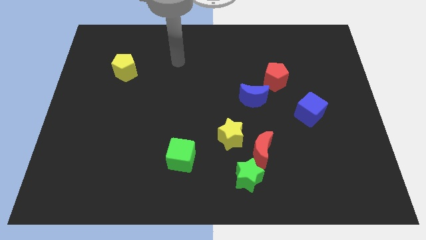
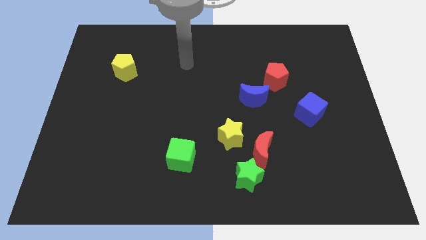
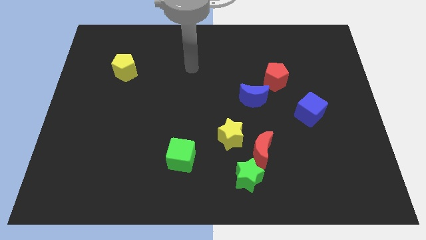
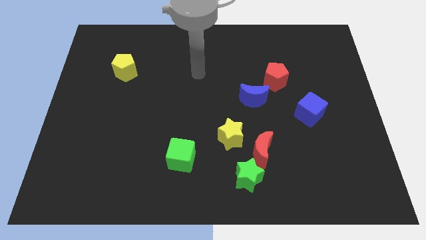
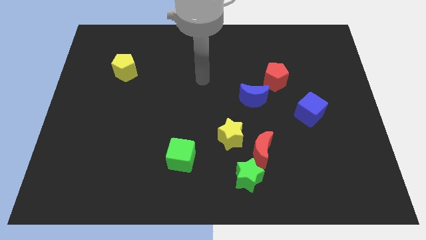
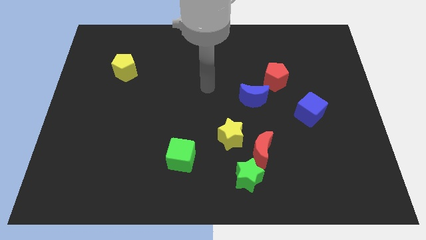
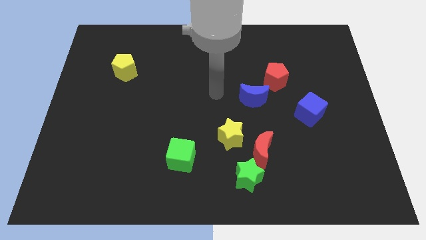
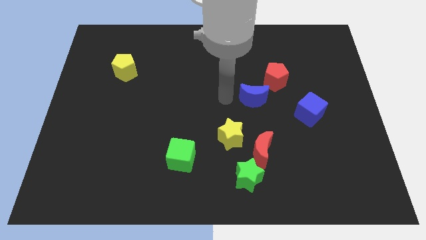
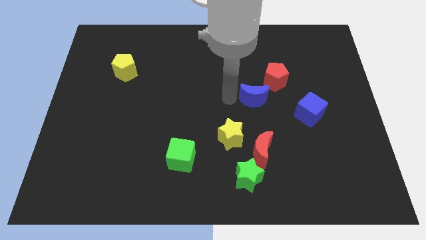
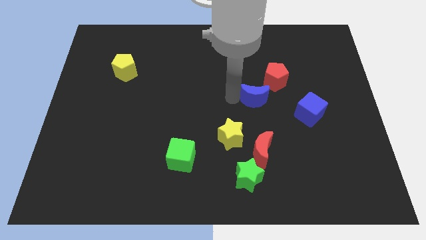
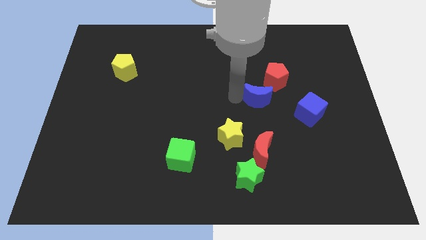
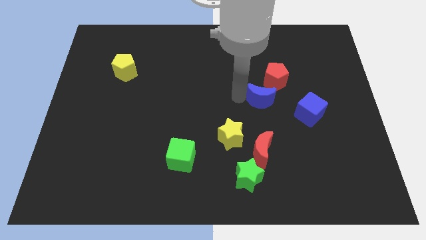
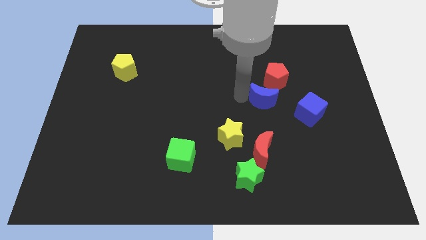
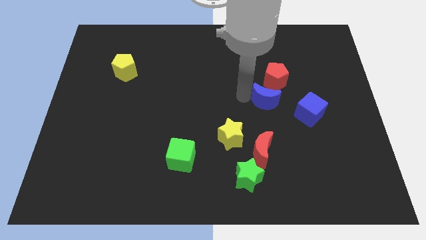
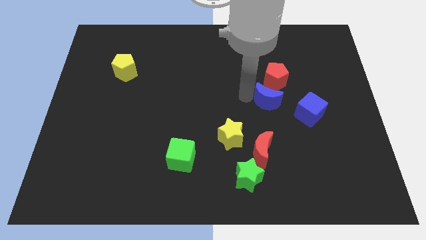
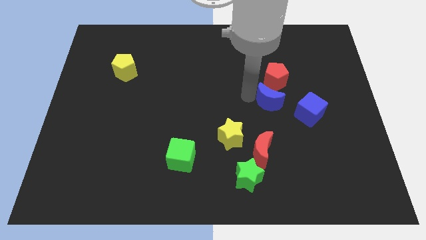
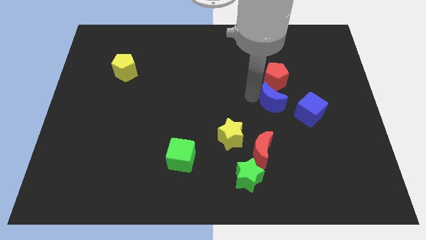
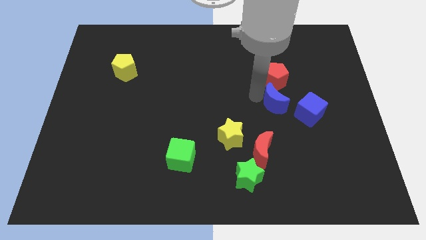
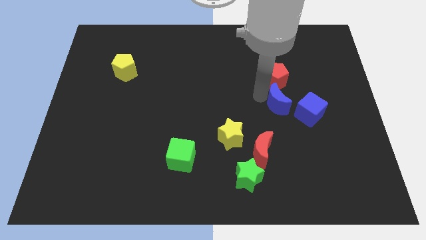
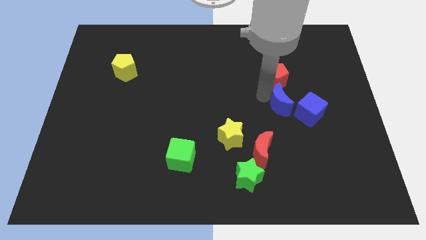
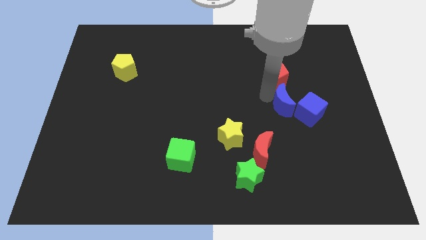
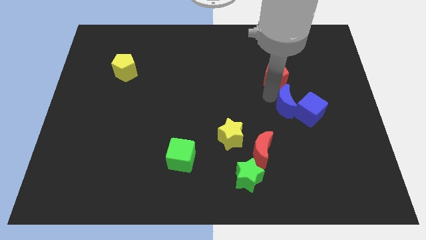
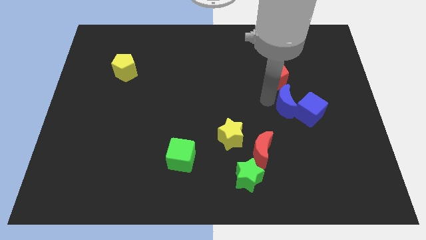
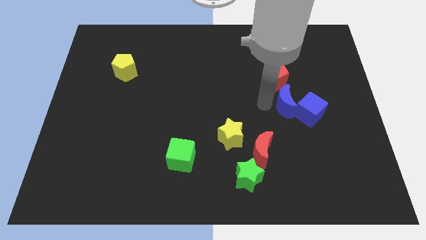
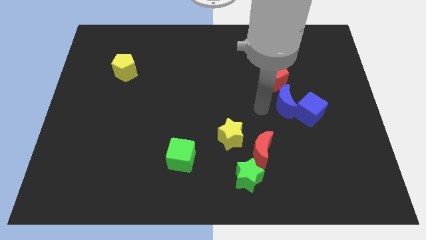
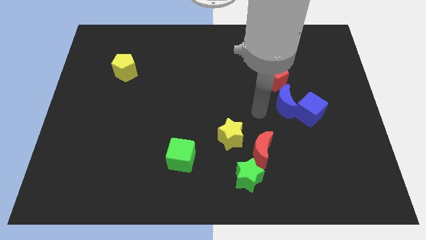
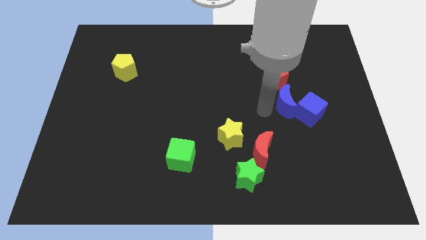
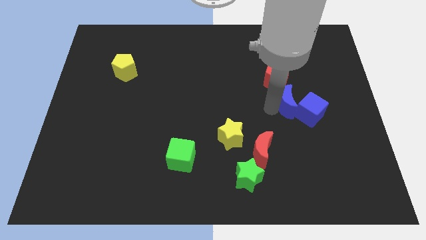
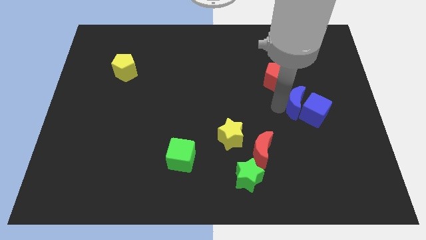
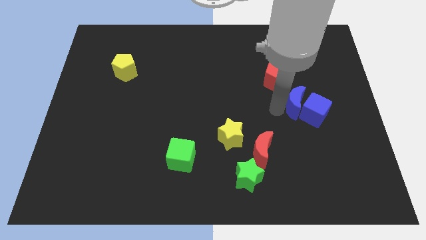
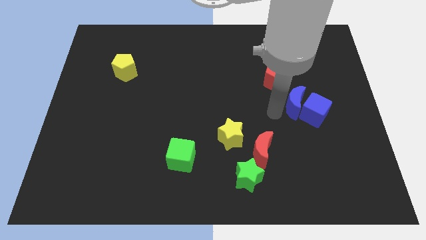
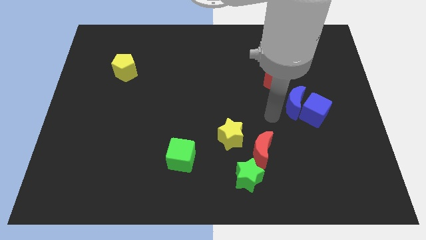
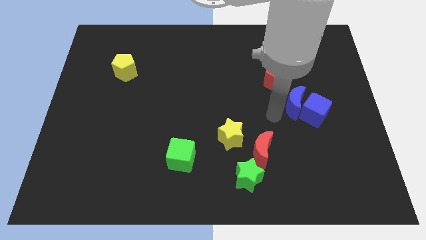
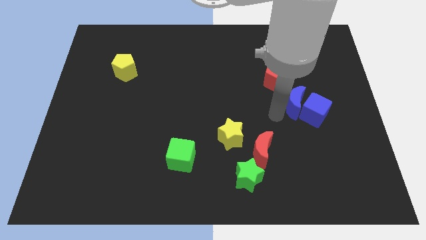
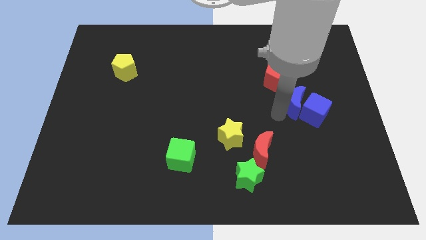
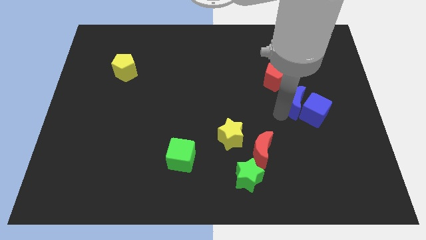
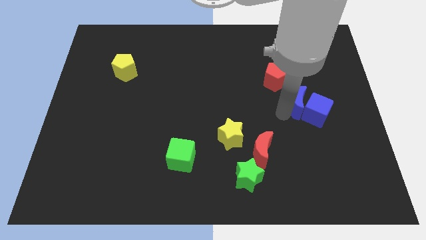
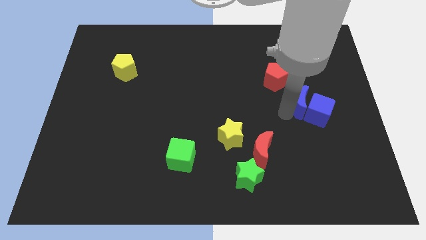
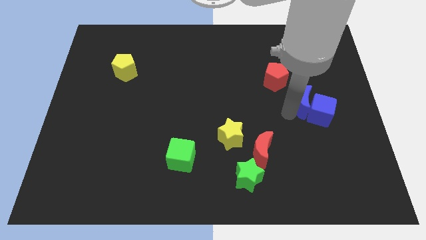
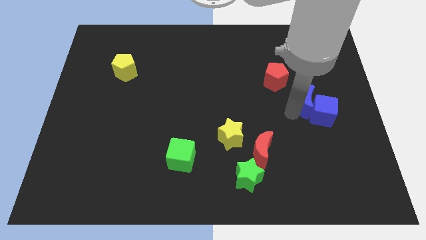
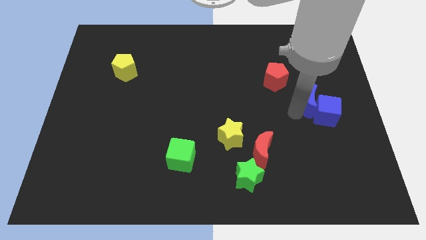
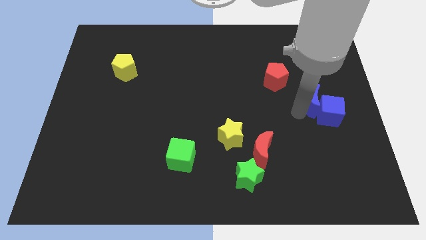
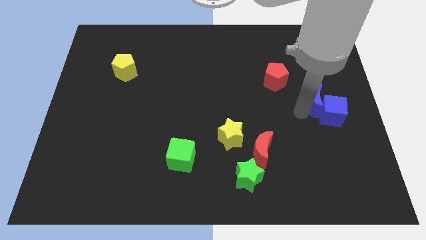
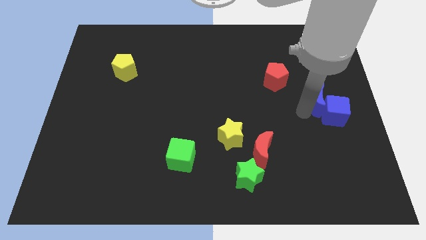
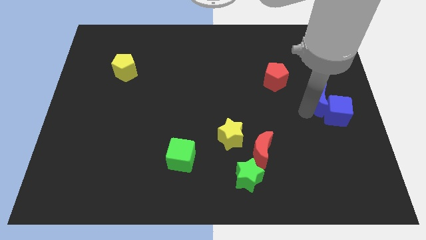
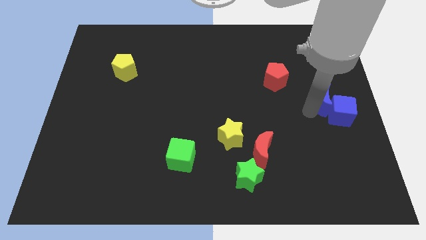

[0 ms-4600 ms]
push the blue moon to the right side

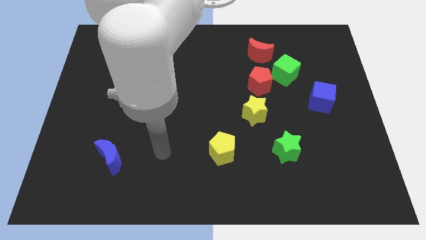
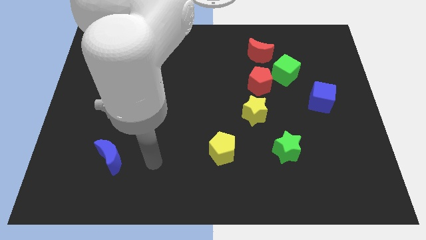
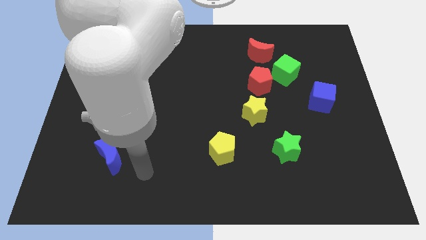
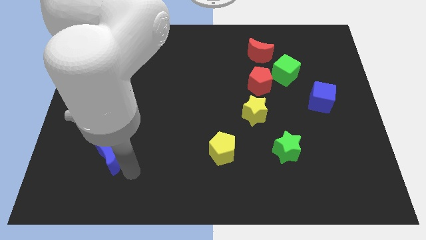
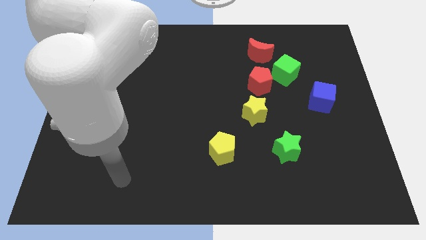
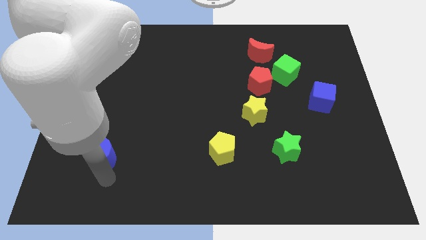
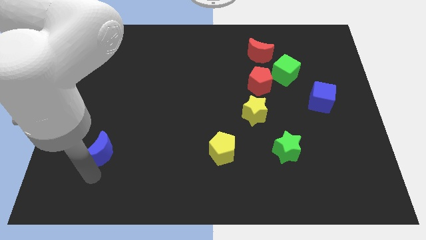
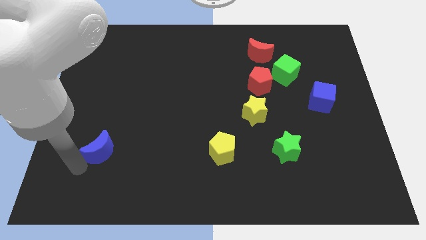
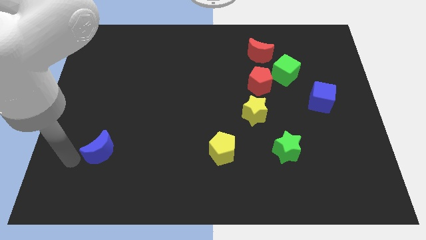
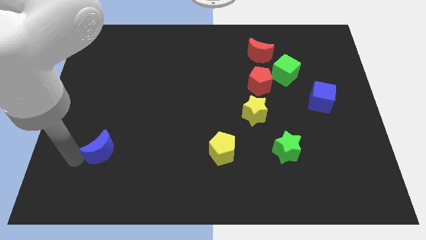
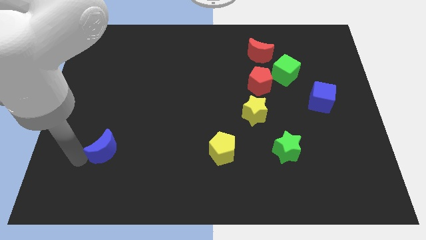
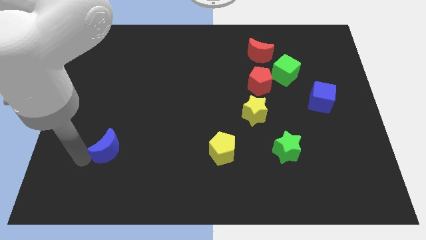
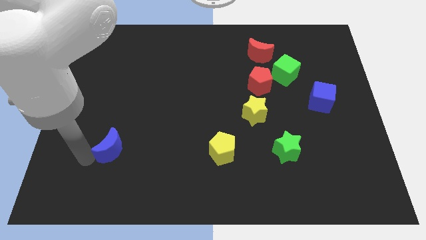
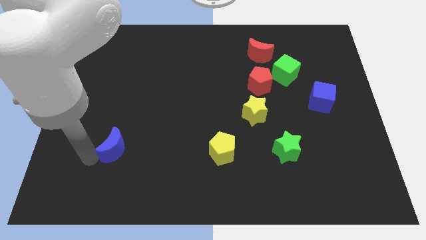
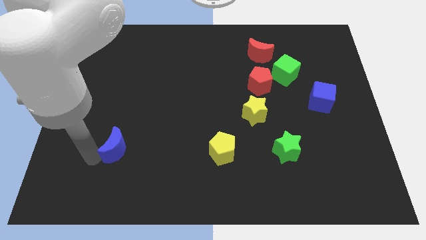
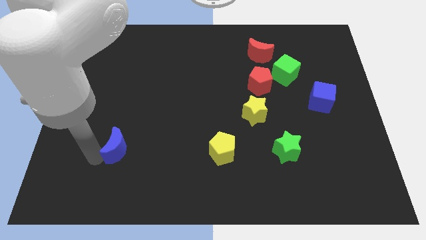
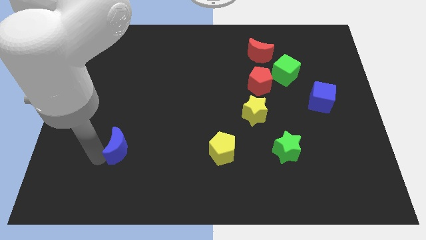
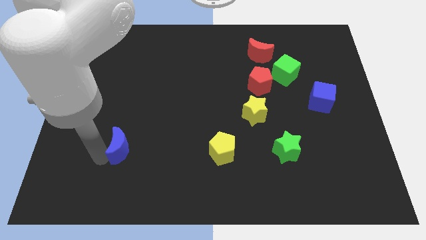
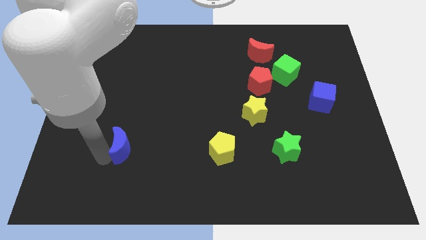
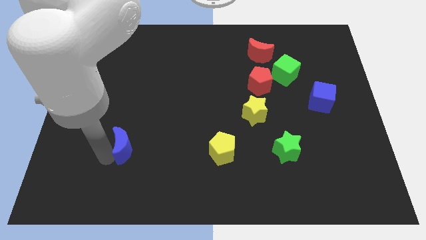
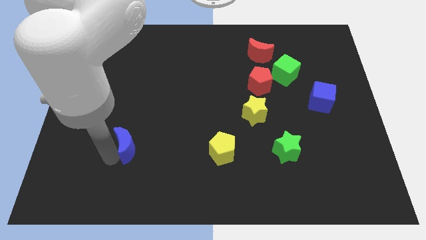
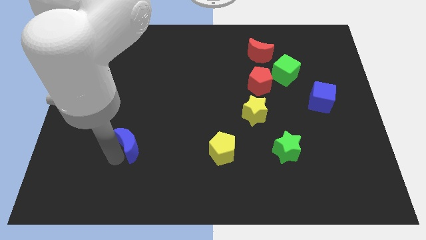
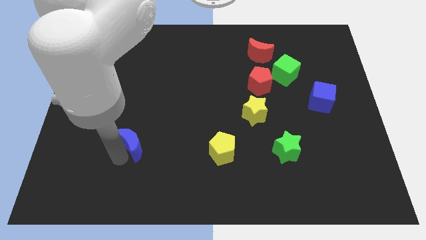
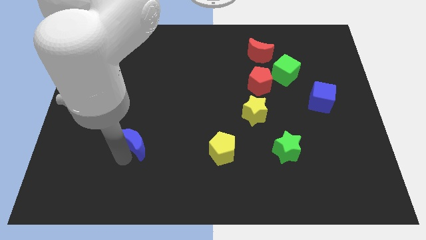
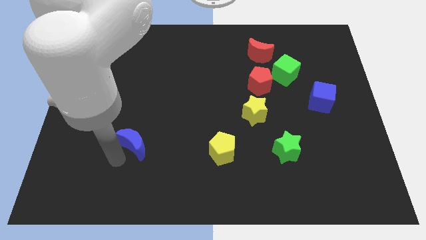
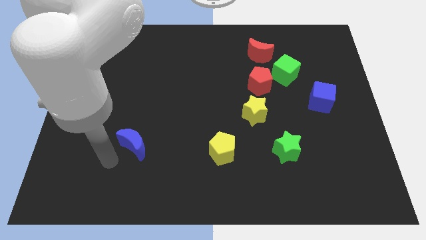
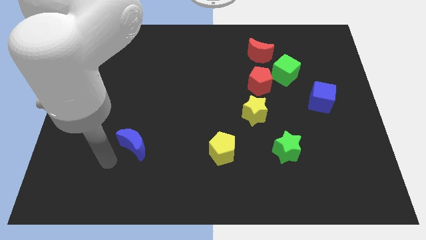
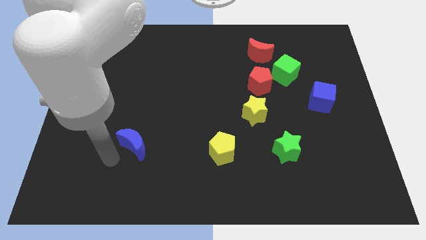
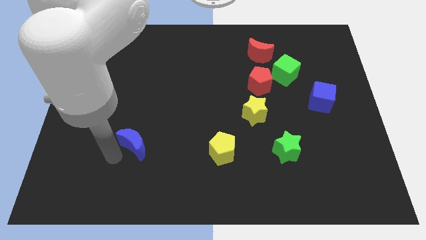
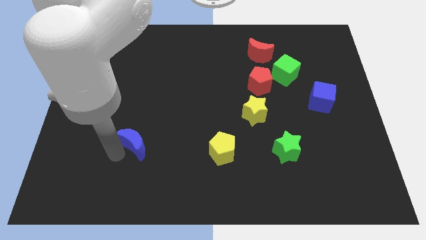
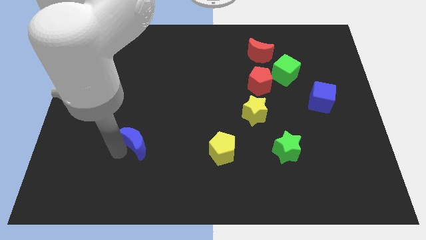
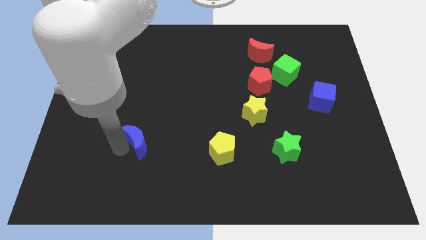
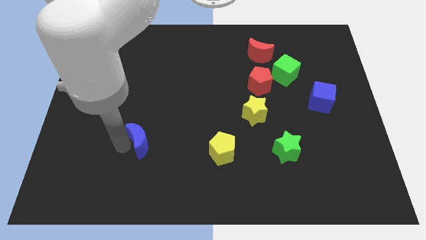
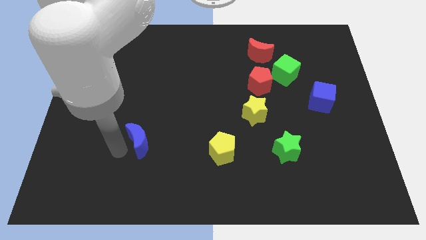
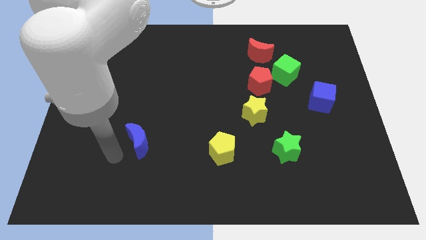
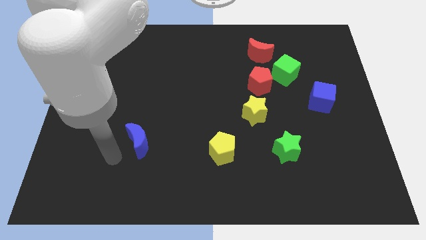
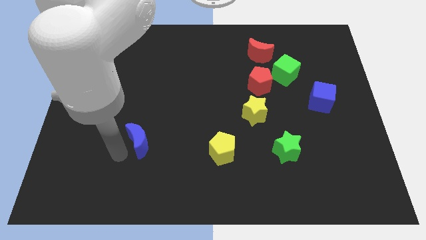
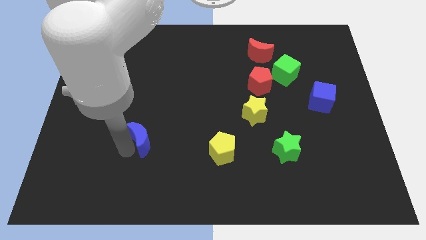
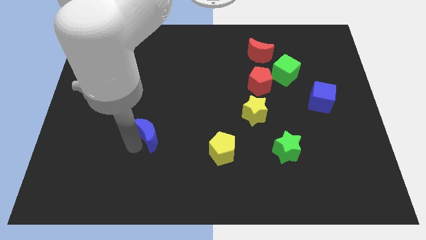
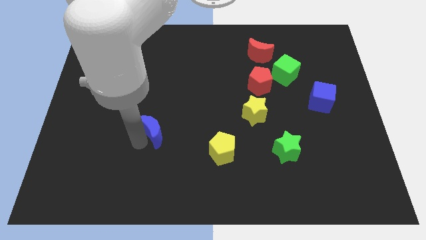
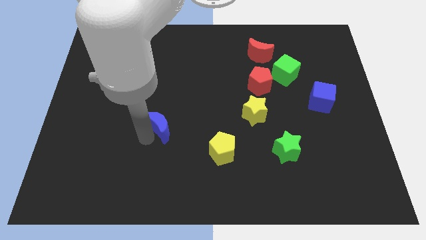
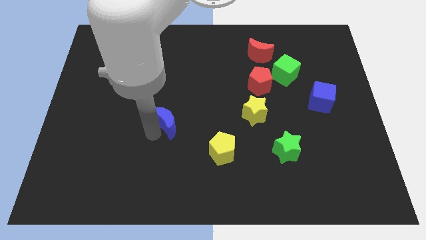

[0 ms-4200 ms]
move the blue moon to the middle of the board
